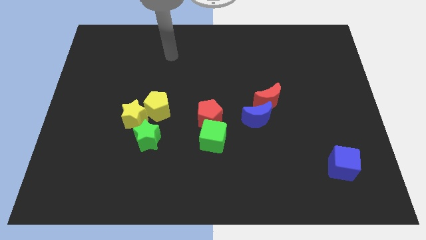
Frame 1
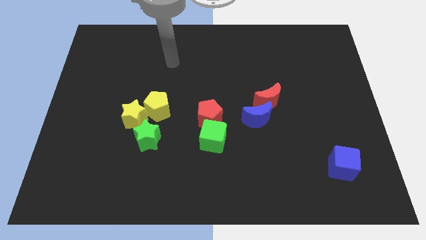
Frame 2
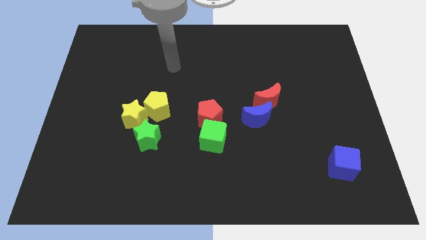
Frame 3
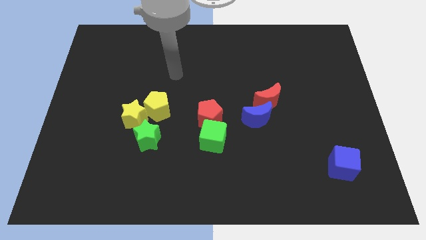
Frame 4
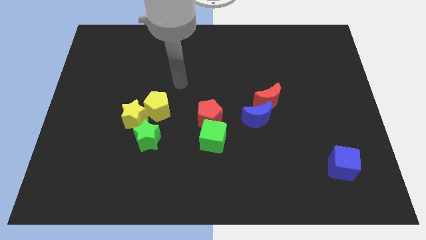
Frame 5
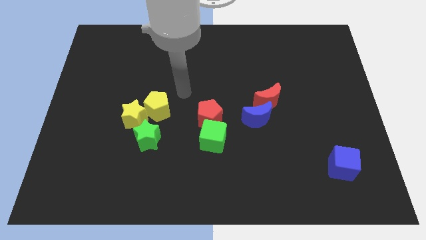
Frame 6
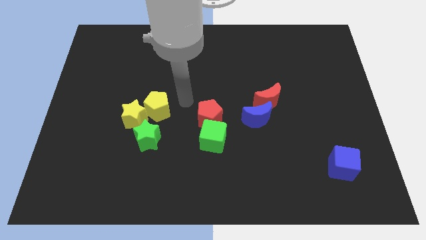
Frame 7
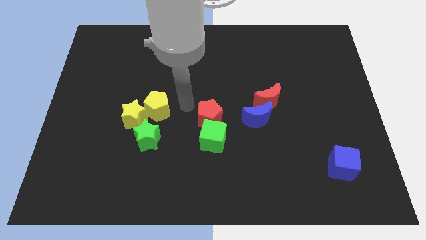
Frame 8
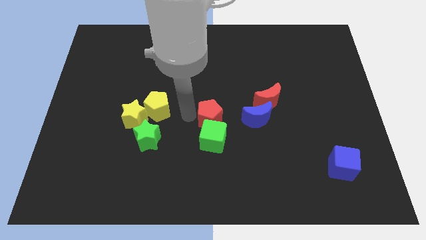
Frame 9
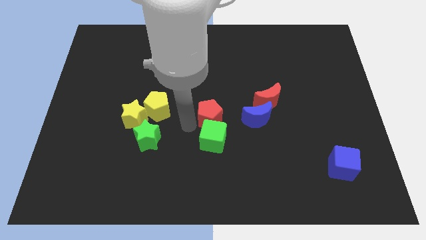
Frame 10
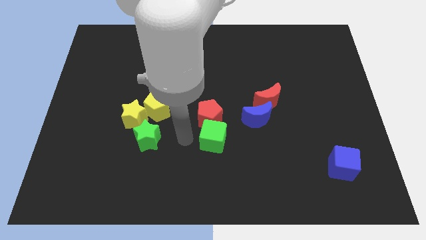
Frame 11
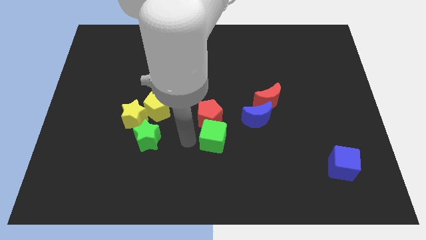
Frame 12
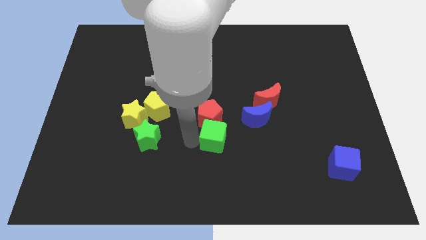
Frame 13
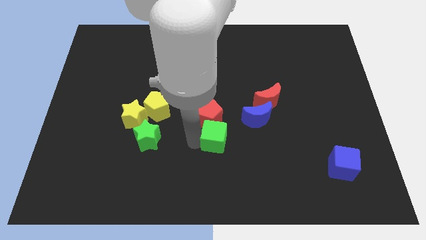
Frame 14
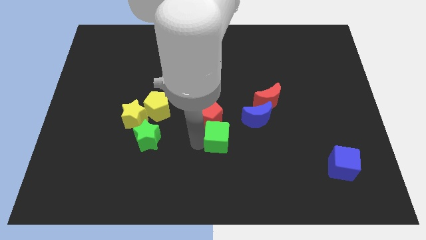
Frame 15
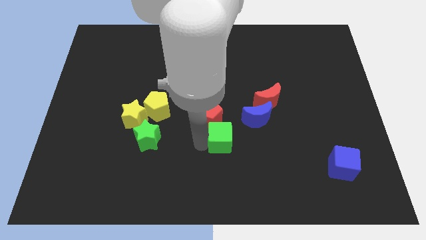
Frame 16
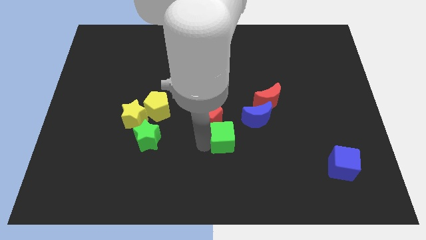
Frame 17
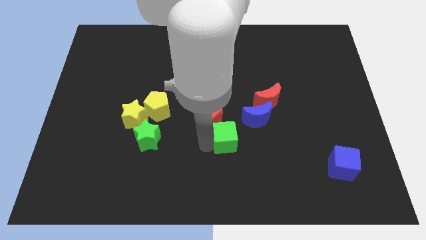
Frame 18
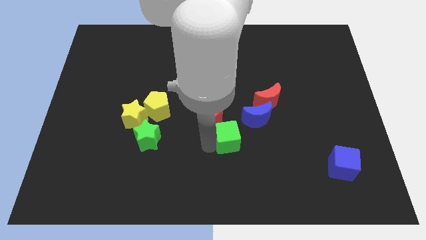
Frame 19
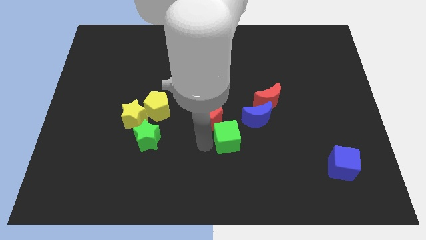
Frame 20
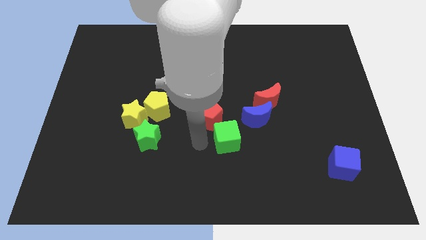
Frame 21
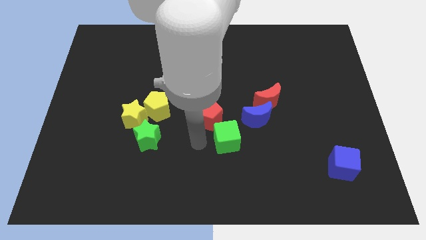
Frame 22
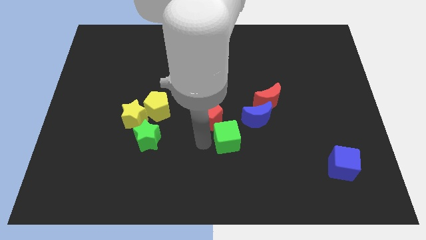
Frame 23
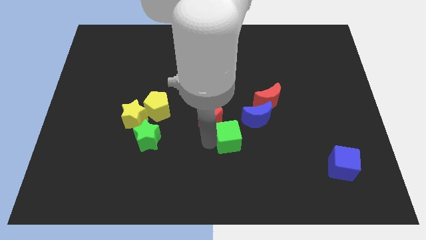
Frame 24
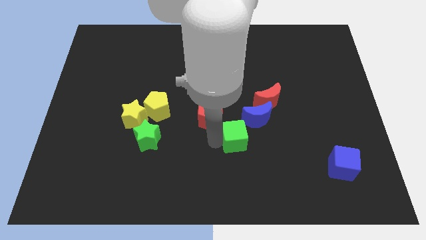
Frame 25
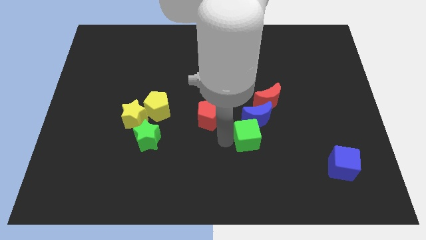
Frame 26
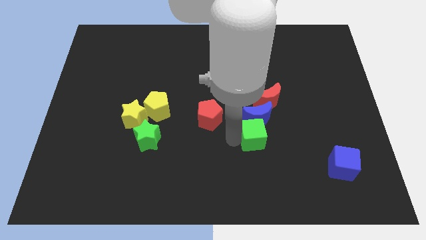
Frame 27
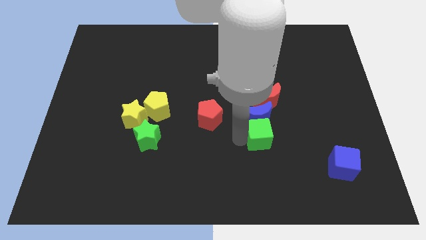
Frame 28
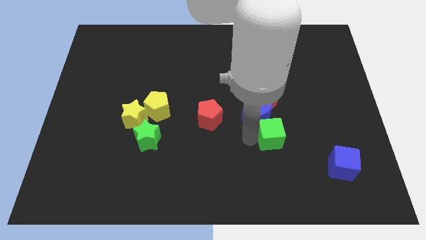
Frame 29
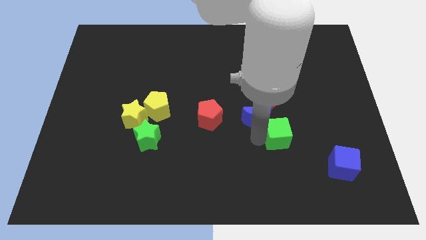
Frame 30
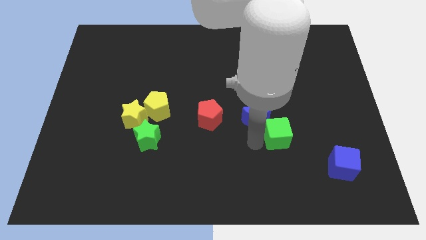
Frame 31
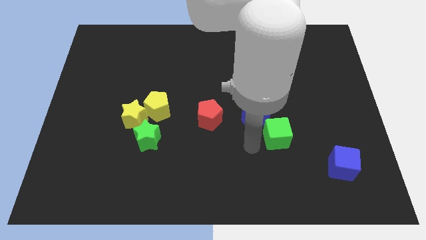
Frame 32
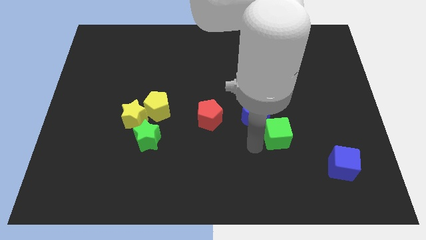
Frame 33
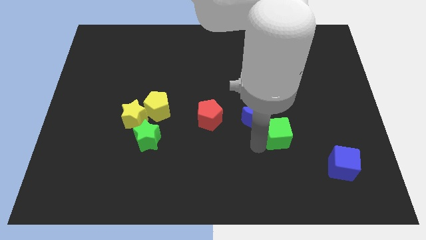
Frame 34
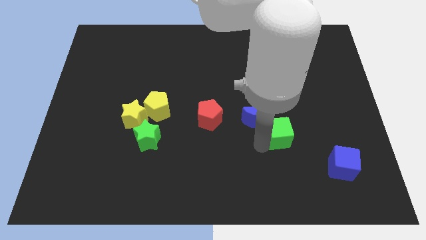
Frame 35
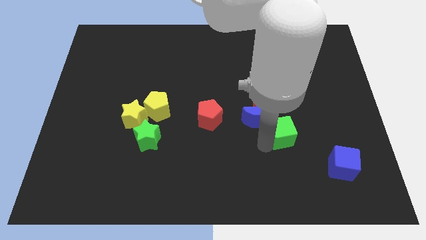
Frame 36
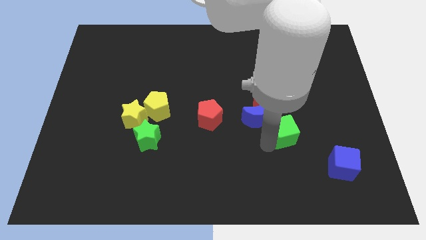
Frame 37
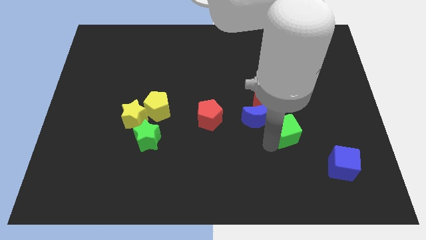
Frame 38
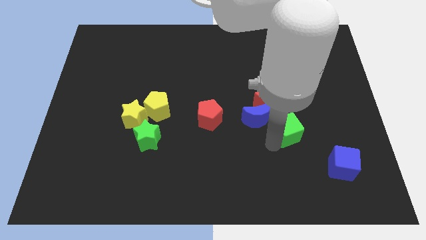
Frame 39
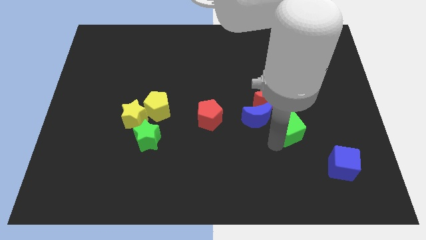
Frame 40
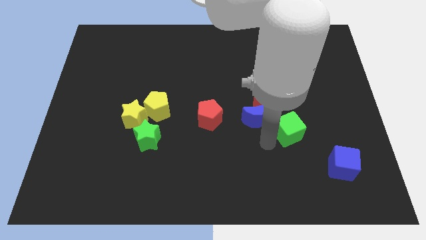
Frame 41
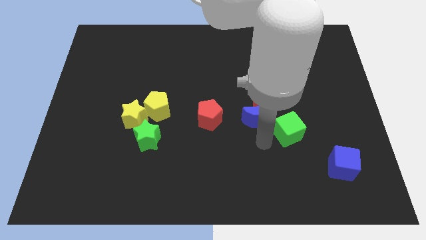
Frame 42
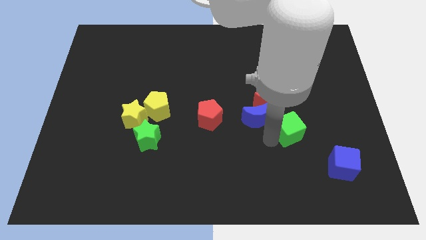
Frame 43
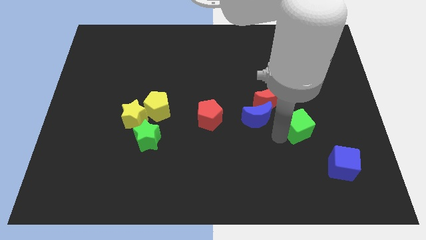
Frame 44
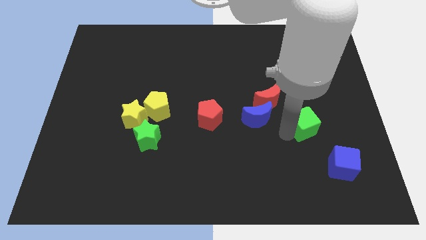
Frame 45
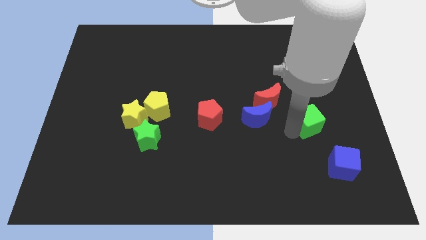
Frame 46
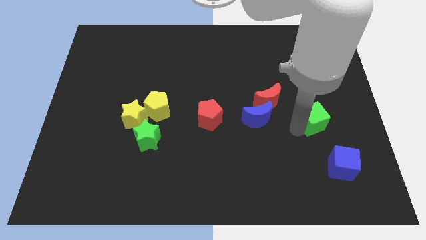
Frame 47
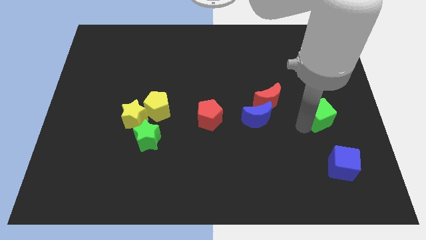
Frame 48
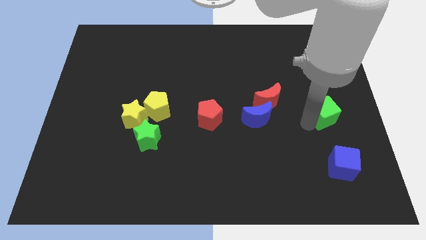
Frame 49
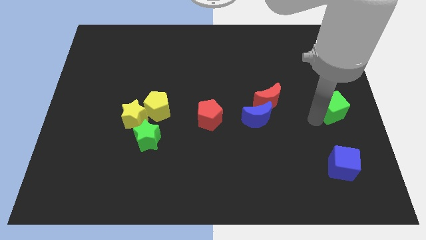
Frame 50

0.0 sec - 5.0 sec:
push the green cube to the right side of the board

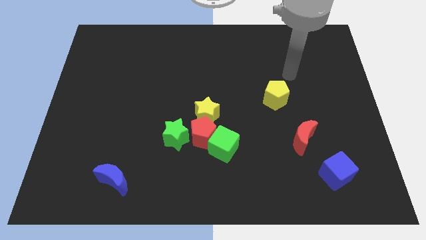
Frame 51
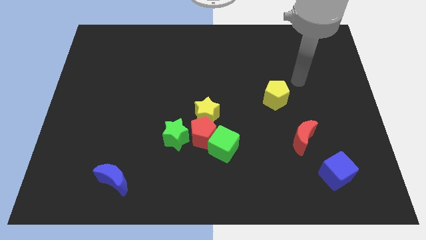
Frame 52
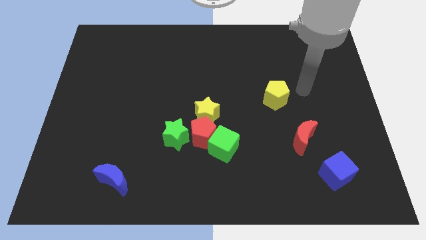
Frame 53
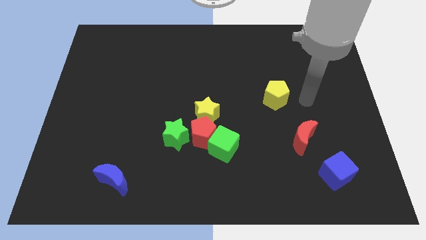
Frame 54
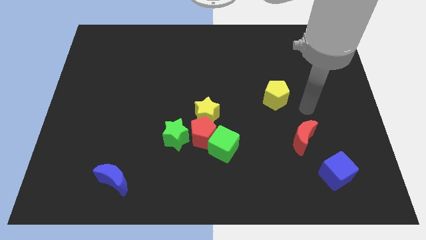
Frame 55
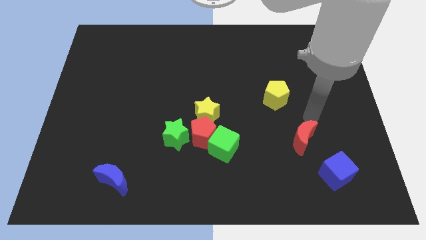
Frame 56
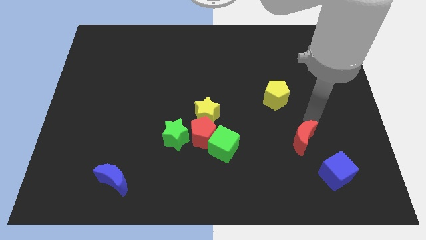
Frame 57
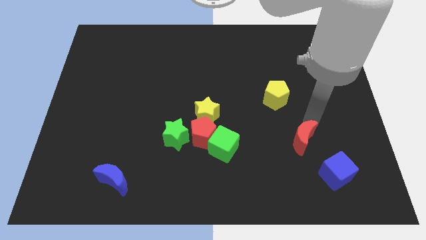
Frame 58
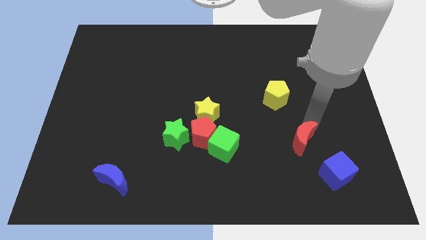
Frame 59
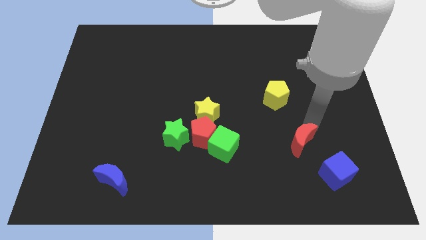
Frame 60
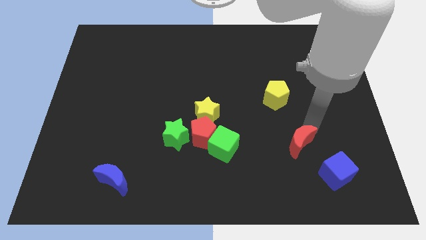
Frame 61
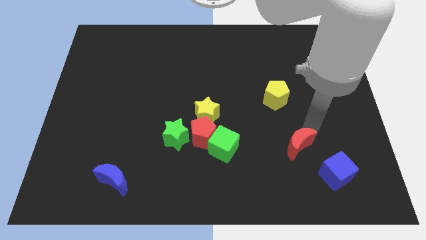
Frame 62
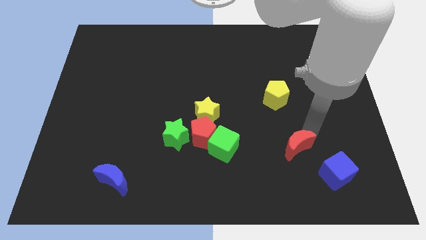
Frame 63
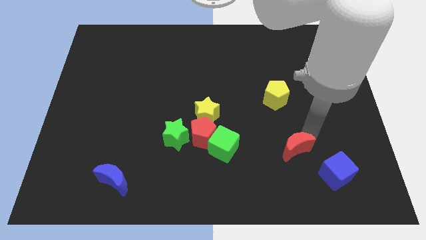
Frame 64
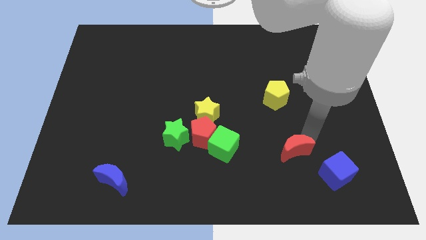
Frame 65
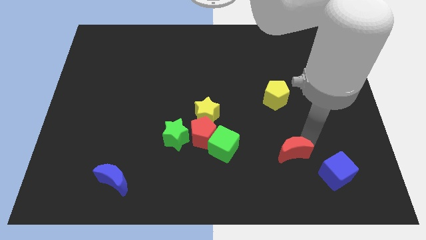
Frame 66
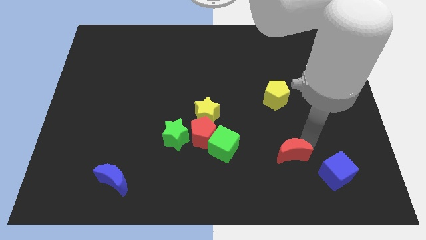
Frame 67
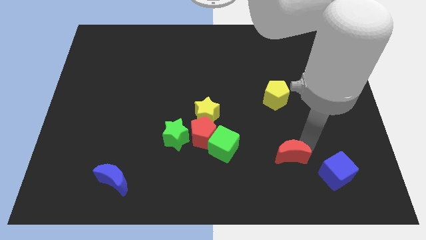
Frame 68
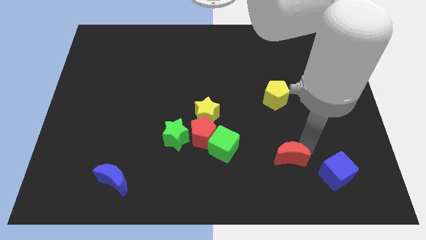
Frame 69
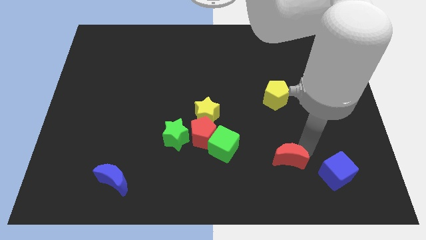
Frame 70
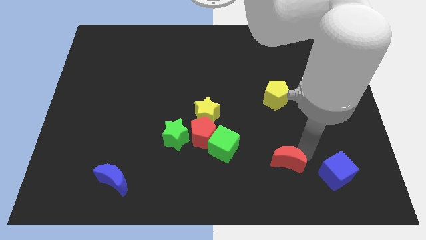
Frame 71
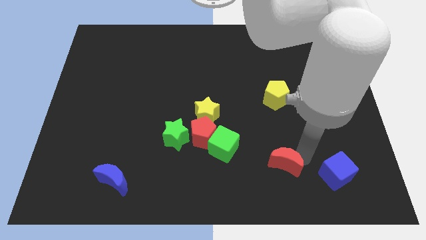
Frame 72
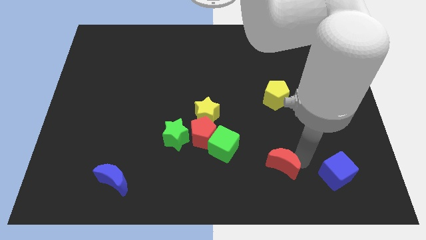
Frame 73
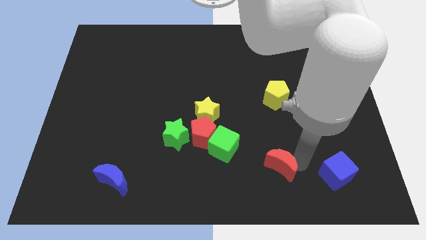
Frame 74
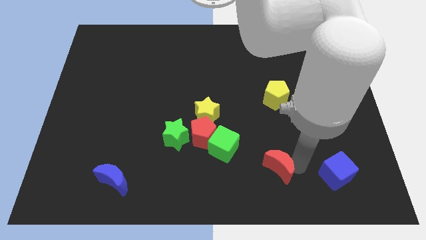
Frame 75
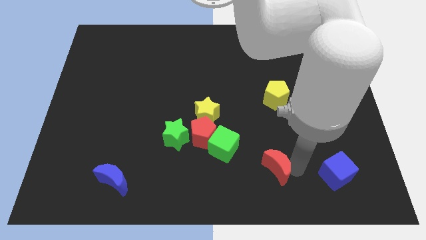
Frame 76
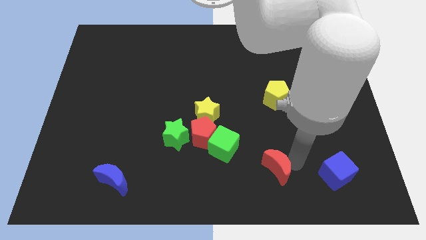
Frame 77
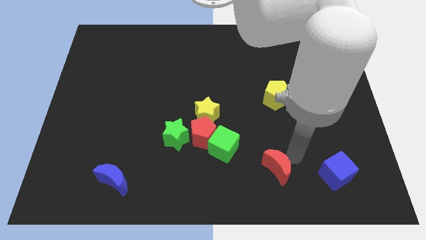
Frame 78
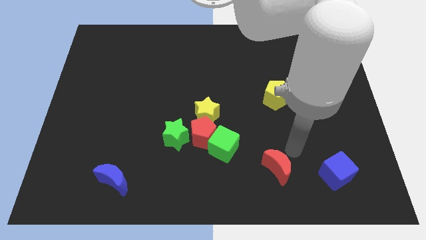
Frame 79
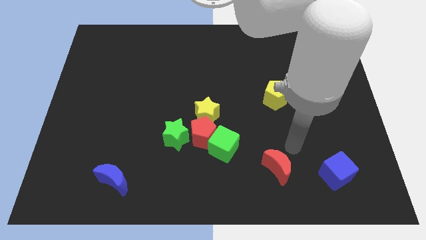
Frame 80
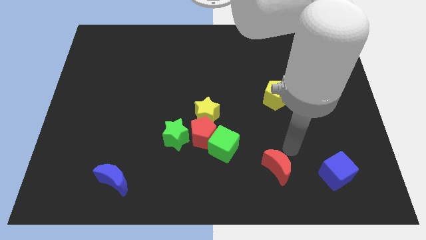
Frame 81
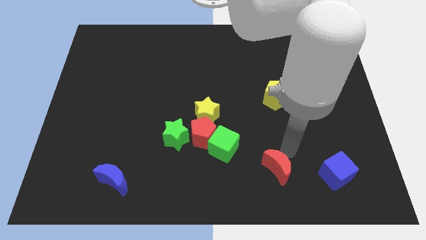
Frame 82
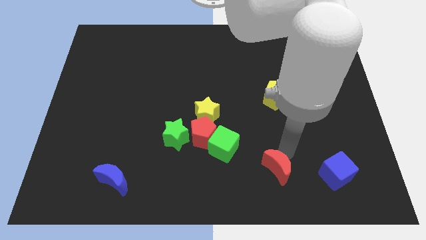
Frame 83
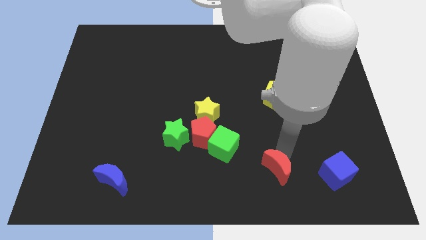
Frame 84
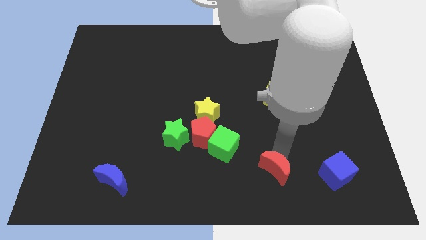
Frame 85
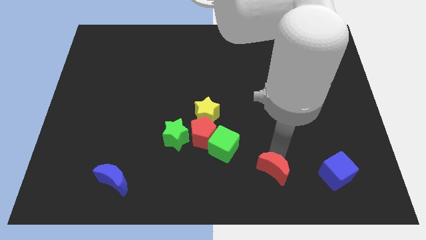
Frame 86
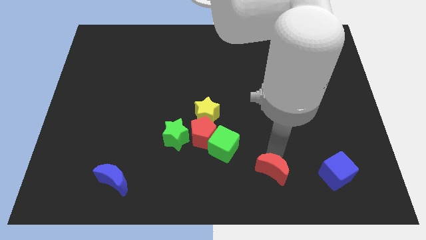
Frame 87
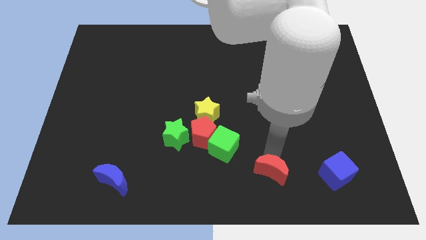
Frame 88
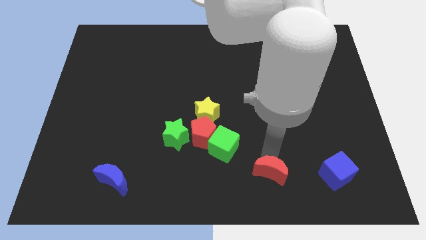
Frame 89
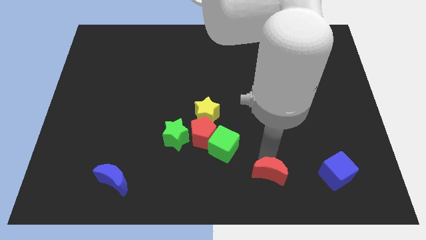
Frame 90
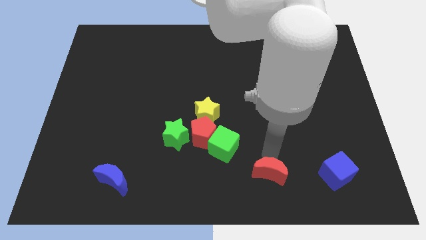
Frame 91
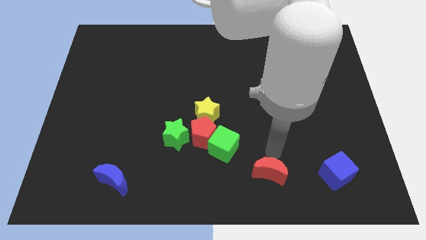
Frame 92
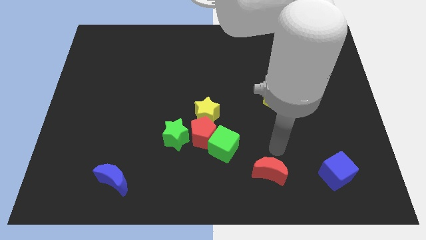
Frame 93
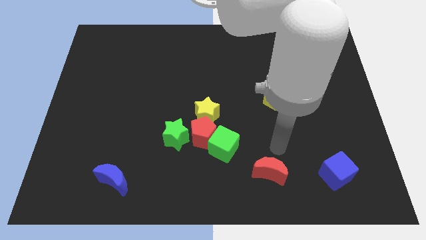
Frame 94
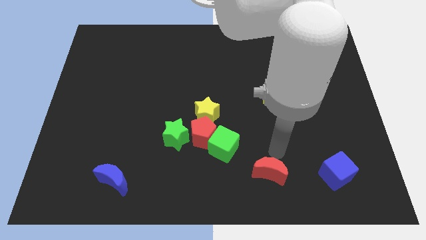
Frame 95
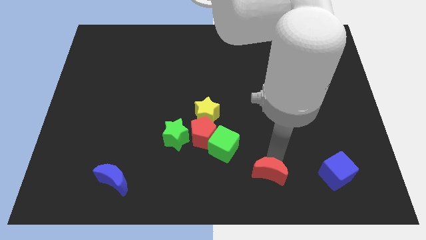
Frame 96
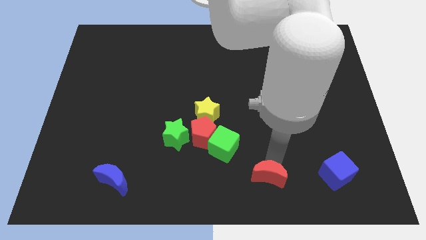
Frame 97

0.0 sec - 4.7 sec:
push the red moon to the bottom side
